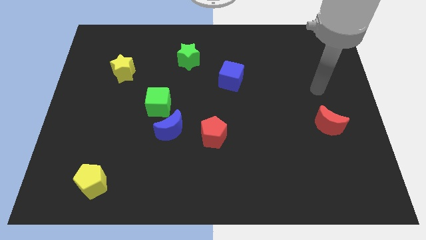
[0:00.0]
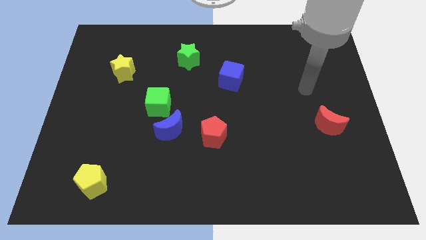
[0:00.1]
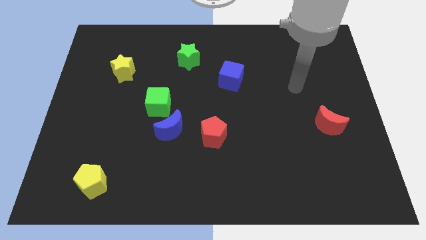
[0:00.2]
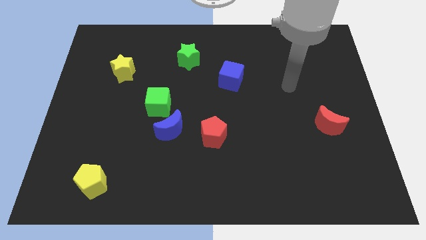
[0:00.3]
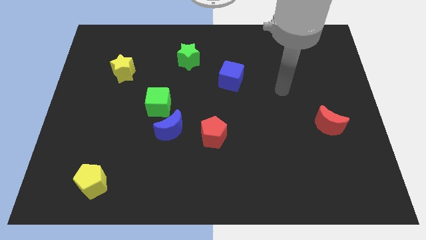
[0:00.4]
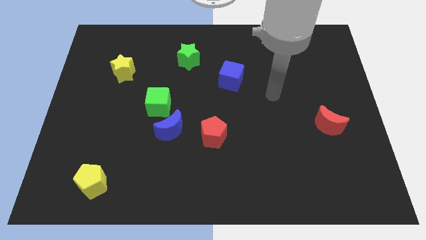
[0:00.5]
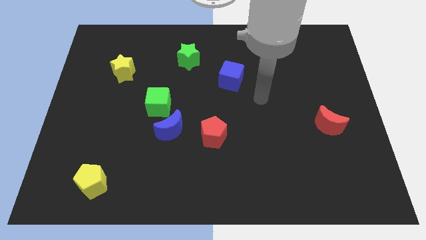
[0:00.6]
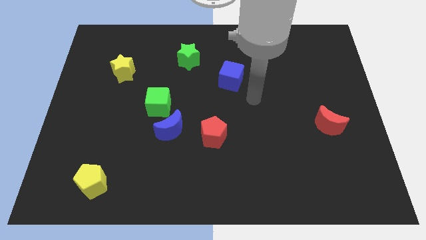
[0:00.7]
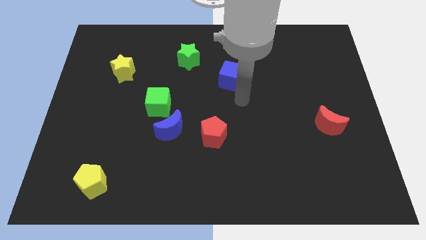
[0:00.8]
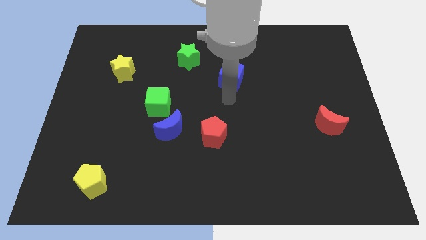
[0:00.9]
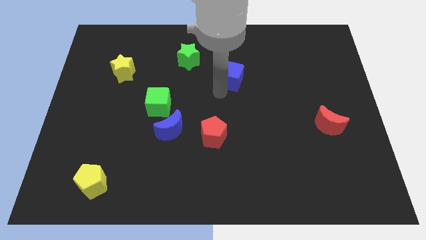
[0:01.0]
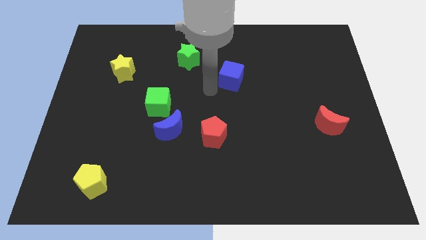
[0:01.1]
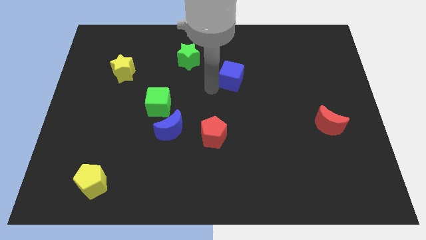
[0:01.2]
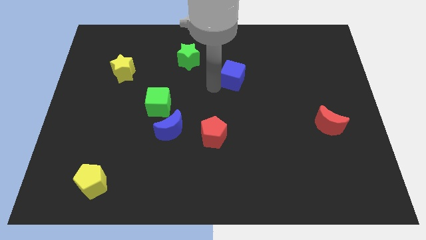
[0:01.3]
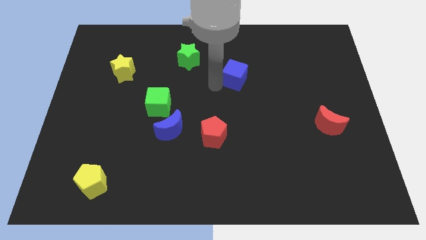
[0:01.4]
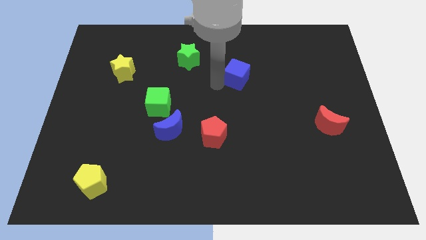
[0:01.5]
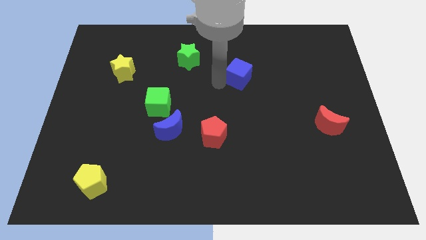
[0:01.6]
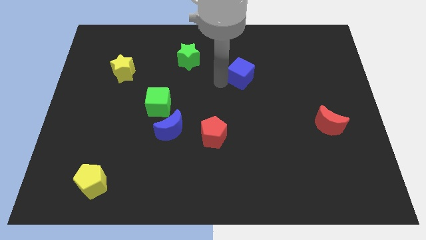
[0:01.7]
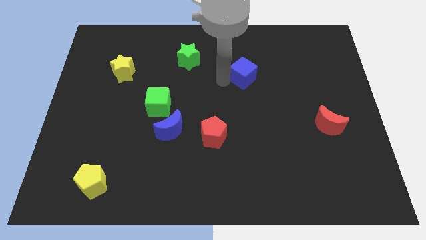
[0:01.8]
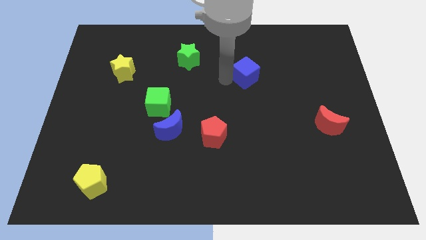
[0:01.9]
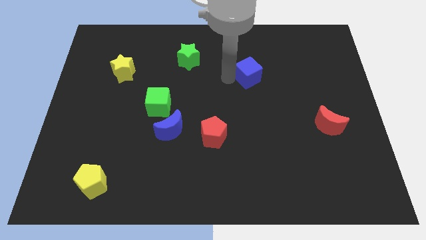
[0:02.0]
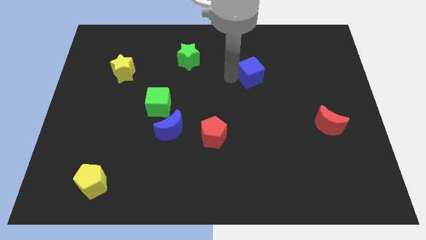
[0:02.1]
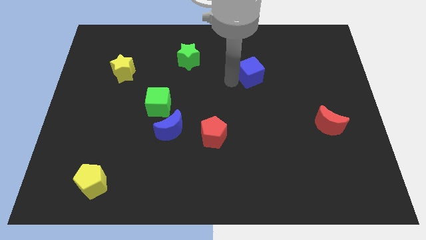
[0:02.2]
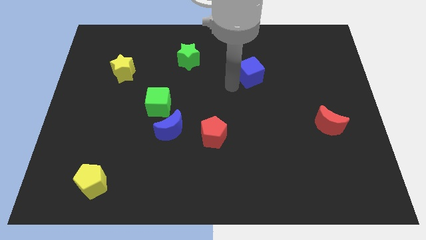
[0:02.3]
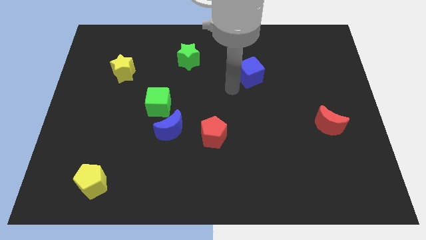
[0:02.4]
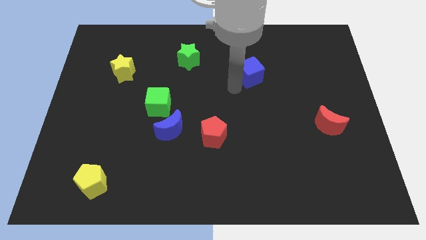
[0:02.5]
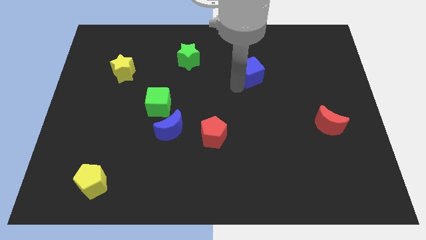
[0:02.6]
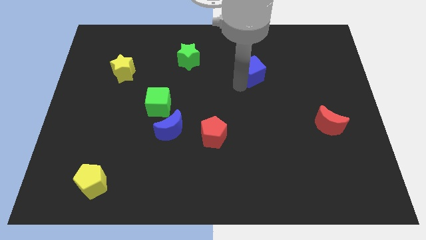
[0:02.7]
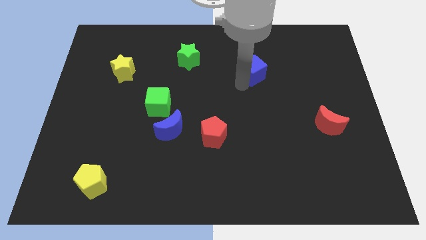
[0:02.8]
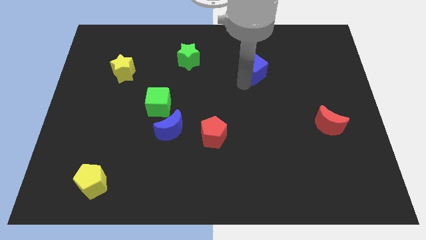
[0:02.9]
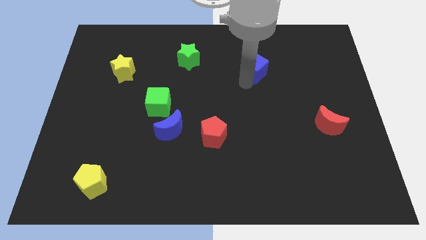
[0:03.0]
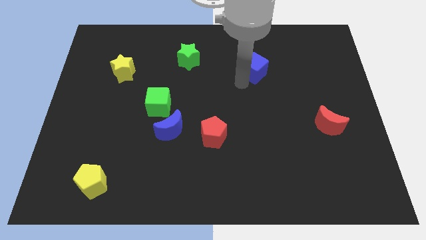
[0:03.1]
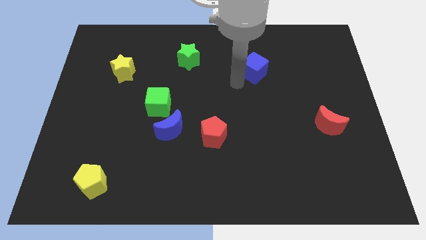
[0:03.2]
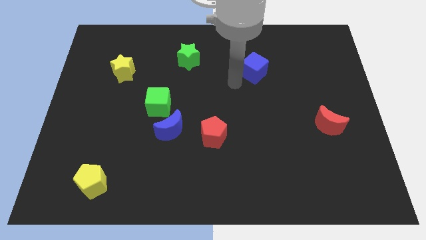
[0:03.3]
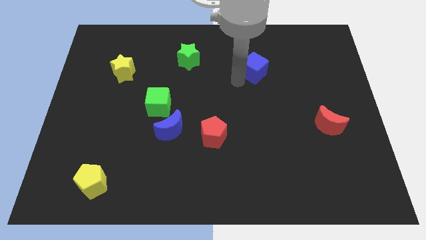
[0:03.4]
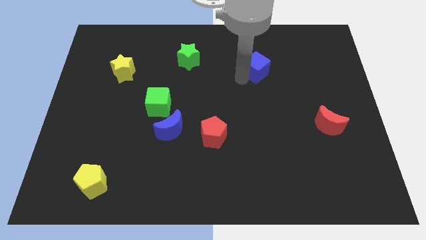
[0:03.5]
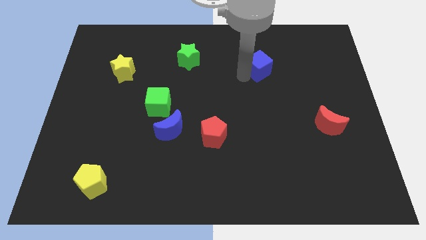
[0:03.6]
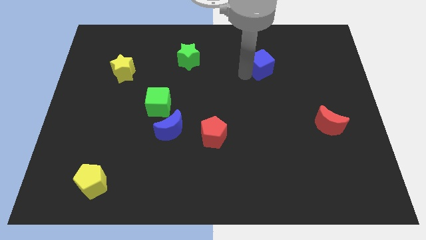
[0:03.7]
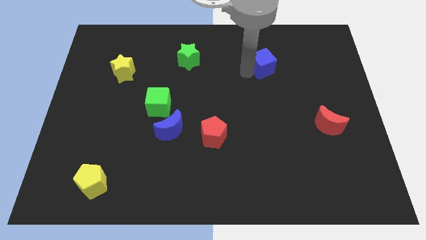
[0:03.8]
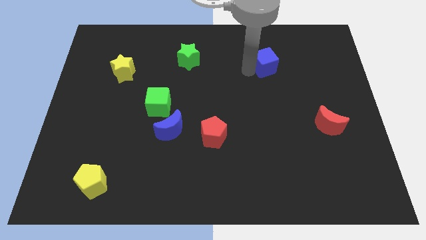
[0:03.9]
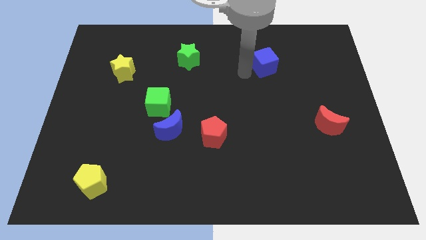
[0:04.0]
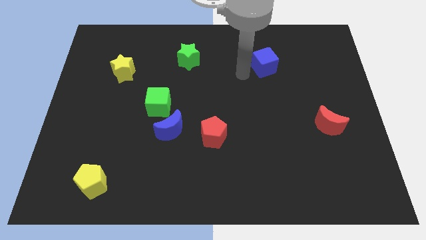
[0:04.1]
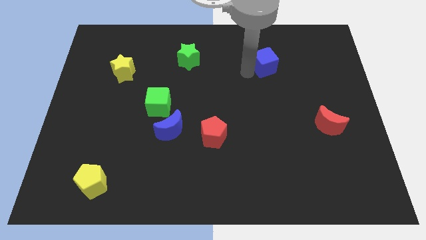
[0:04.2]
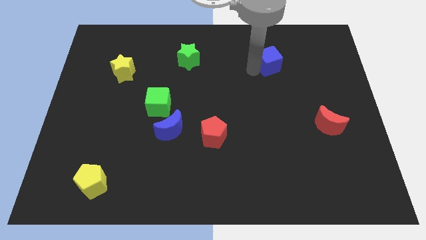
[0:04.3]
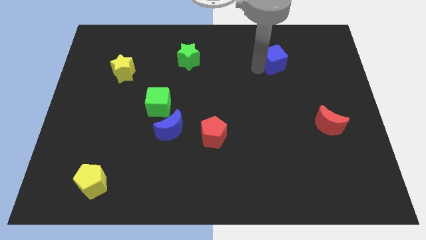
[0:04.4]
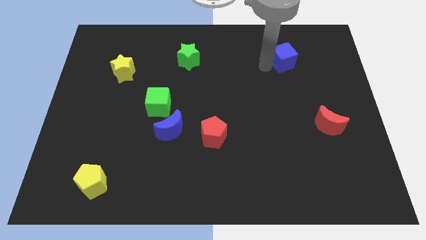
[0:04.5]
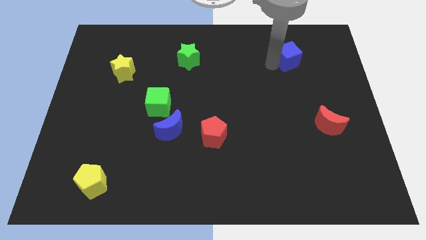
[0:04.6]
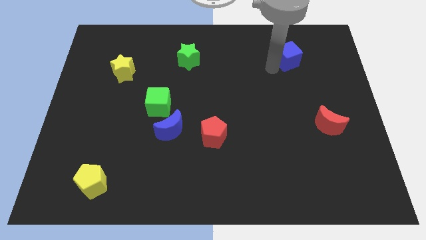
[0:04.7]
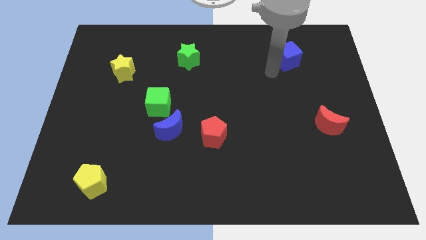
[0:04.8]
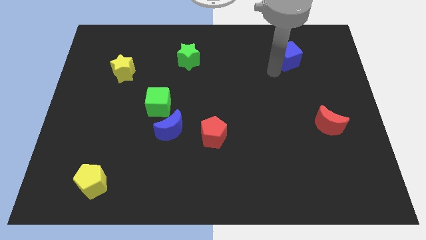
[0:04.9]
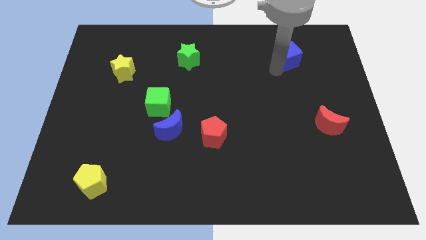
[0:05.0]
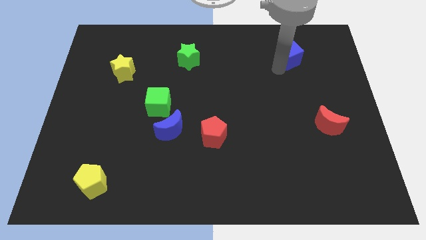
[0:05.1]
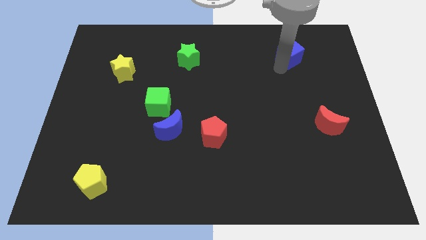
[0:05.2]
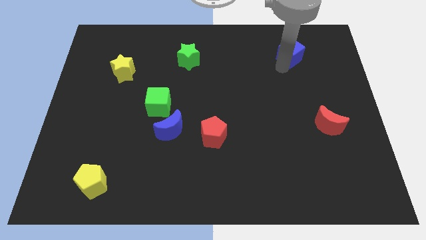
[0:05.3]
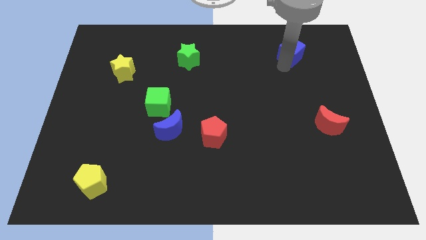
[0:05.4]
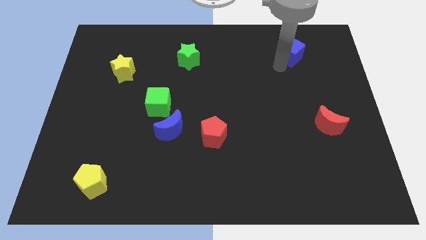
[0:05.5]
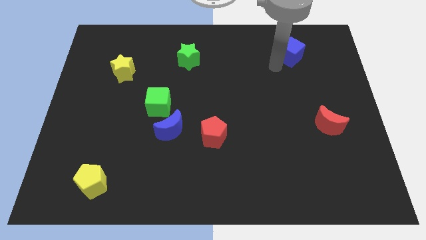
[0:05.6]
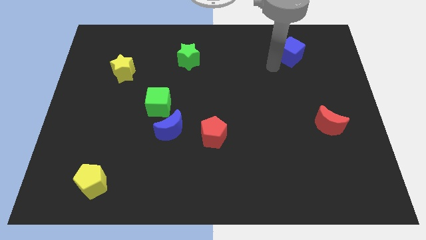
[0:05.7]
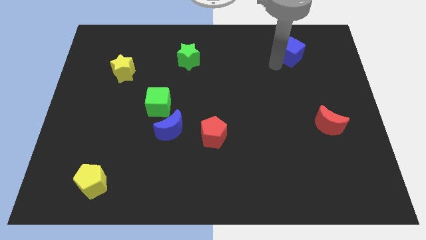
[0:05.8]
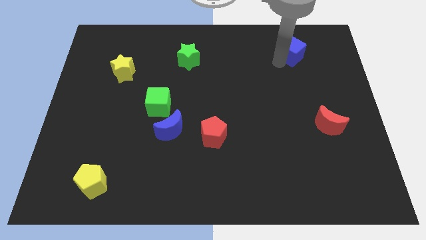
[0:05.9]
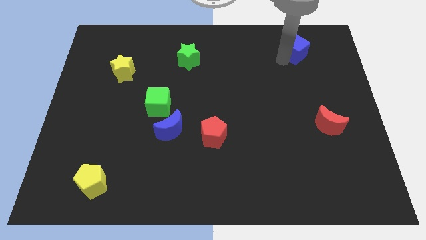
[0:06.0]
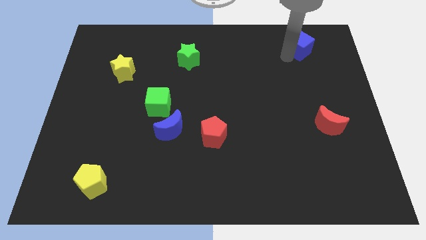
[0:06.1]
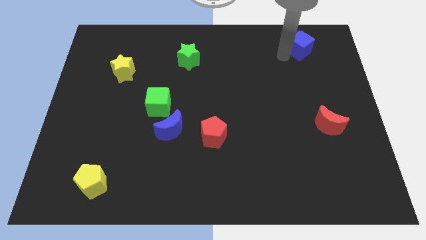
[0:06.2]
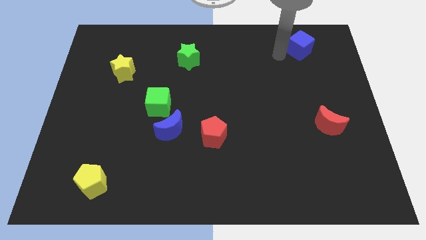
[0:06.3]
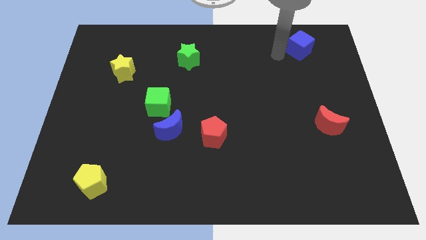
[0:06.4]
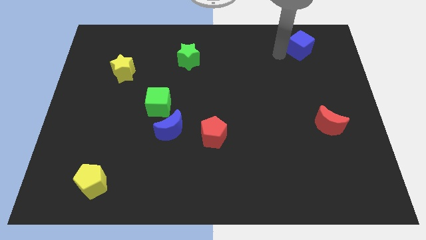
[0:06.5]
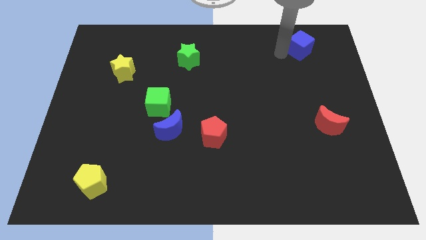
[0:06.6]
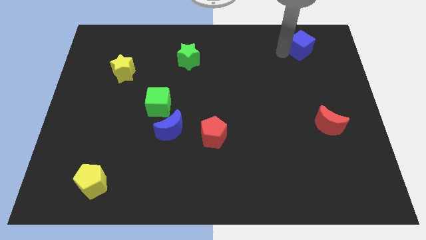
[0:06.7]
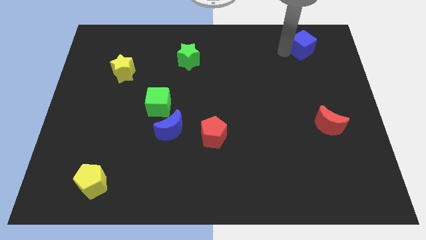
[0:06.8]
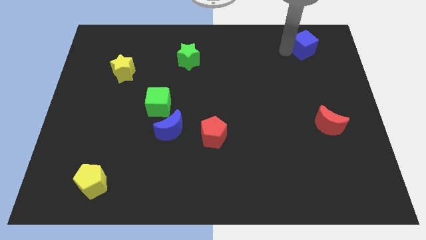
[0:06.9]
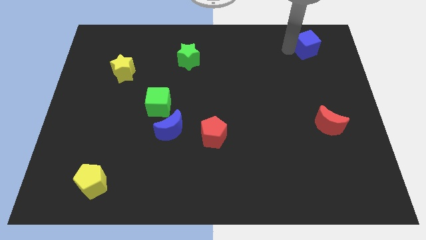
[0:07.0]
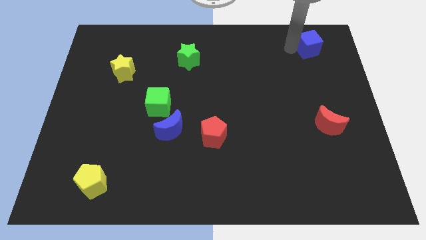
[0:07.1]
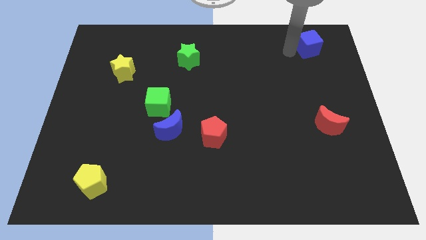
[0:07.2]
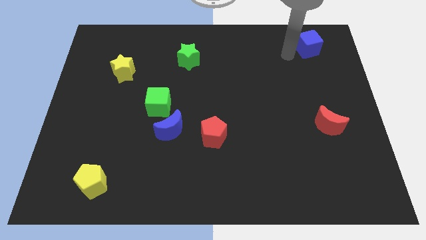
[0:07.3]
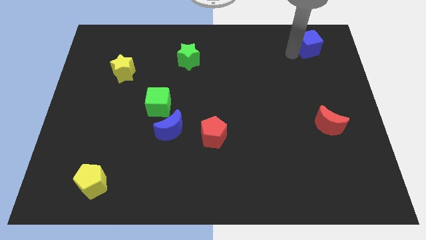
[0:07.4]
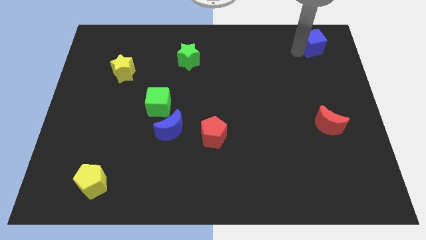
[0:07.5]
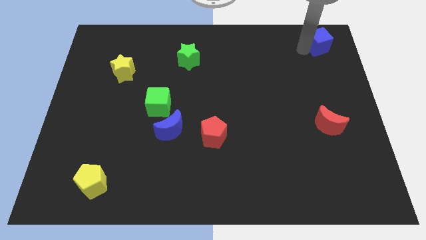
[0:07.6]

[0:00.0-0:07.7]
move the blue cube to the top right corner
